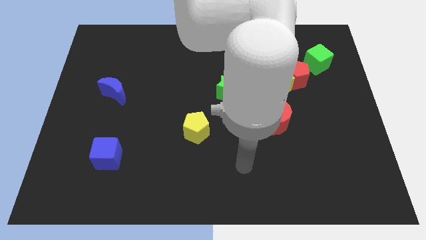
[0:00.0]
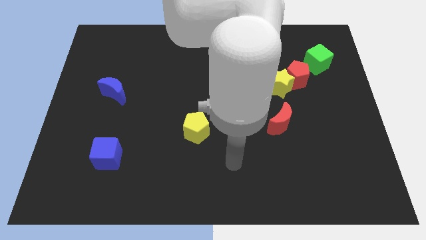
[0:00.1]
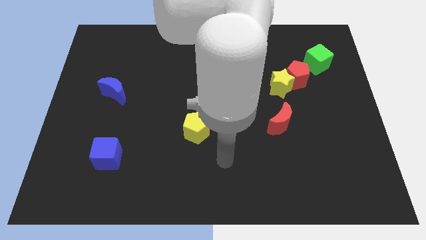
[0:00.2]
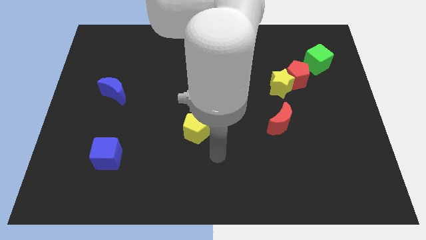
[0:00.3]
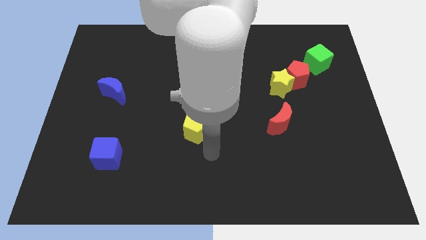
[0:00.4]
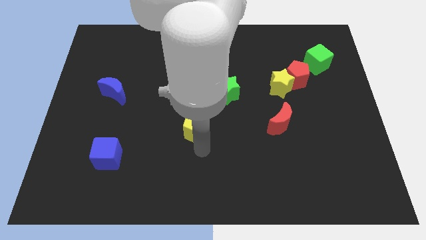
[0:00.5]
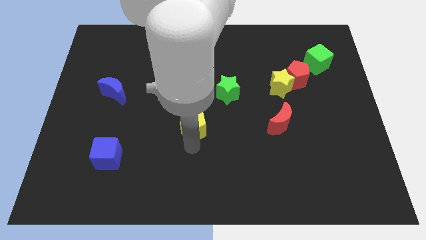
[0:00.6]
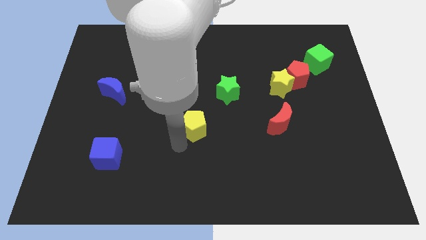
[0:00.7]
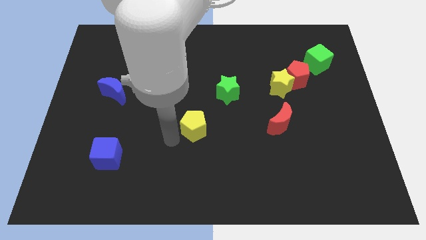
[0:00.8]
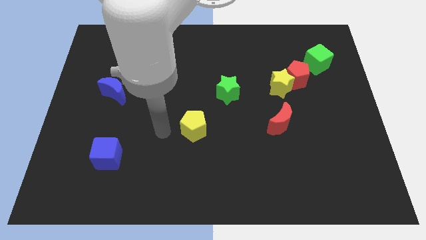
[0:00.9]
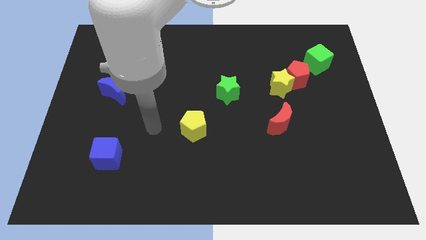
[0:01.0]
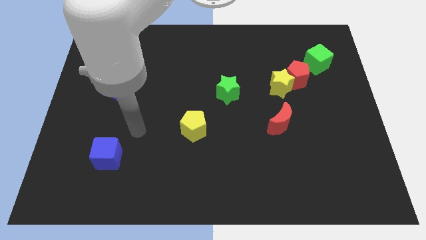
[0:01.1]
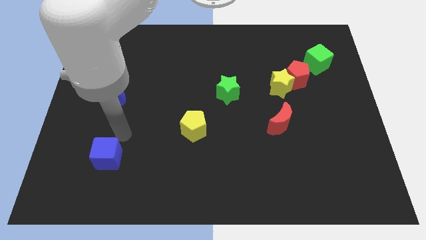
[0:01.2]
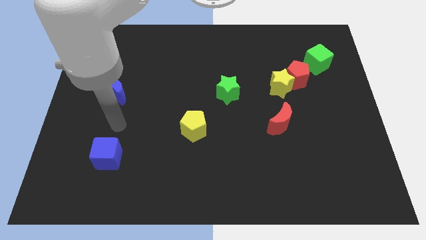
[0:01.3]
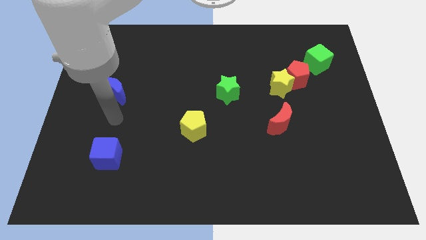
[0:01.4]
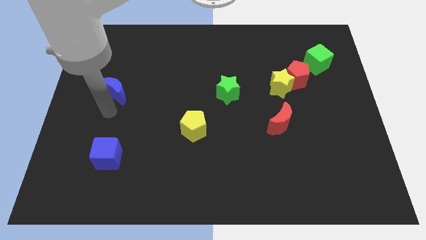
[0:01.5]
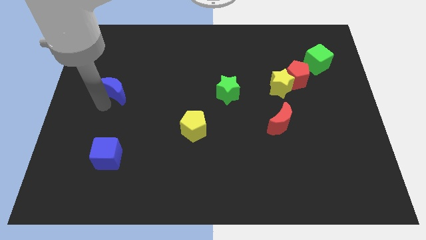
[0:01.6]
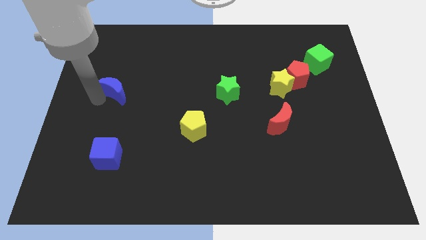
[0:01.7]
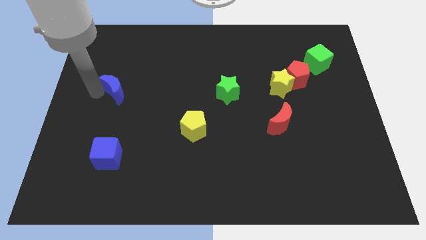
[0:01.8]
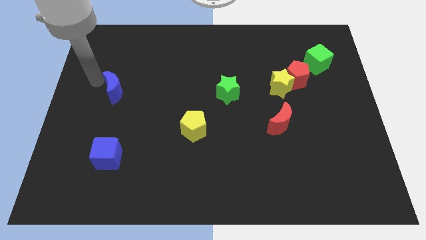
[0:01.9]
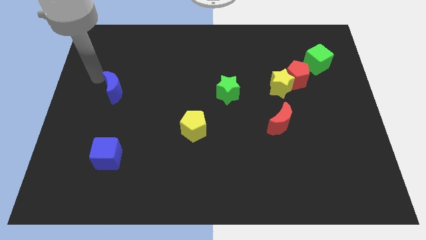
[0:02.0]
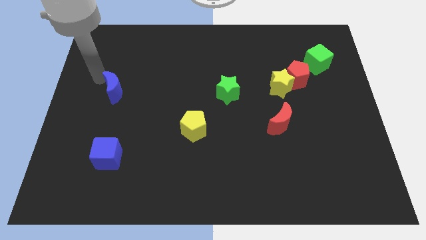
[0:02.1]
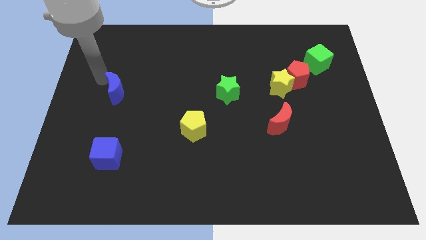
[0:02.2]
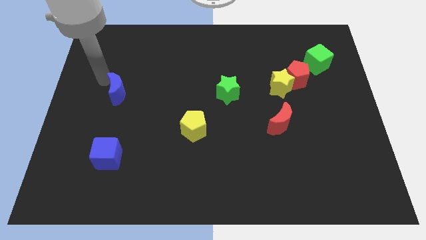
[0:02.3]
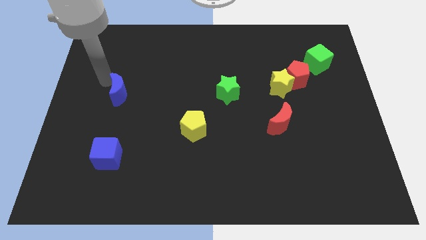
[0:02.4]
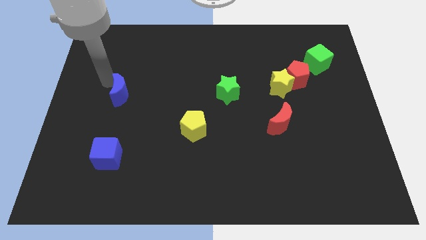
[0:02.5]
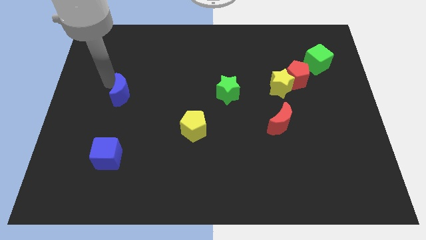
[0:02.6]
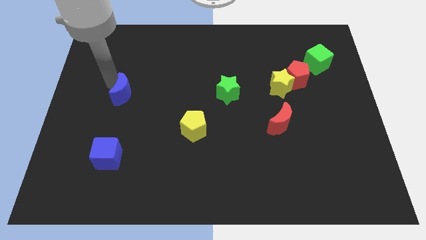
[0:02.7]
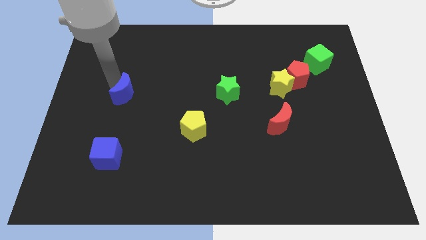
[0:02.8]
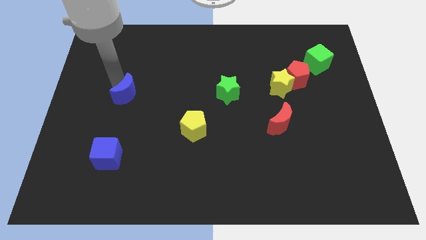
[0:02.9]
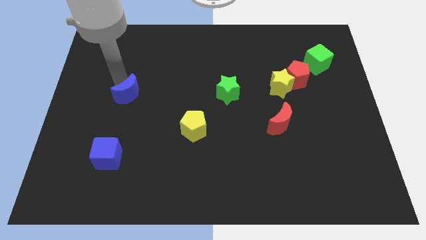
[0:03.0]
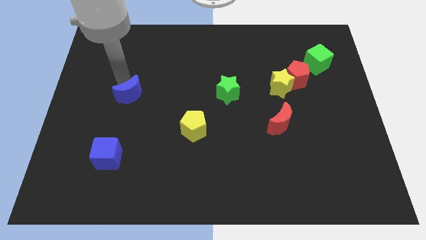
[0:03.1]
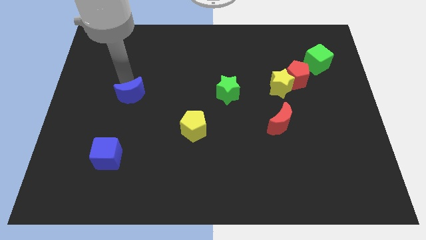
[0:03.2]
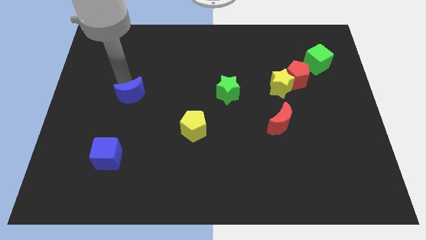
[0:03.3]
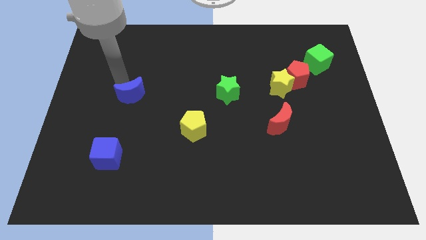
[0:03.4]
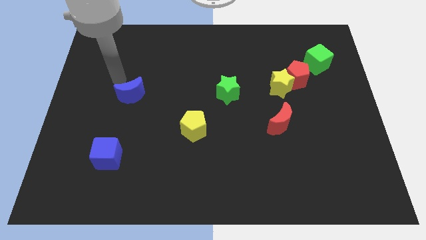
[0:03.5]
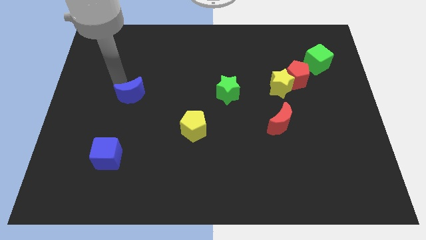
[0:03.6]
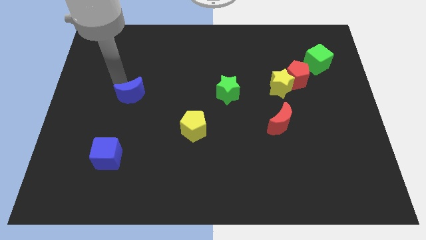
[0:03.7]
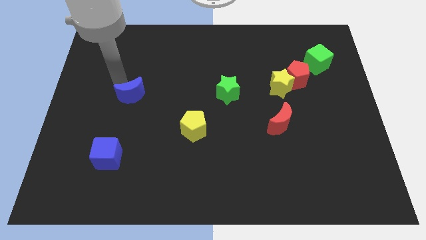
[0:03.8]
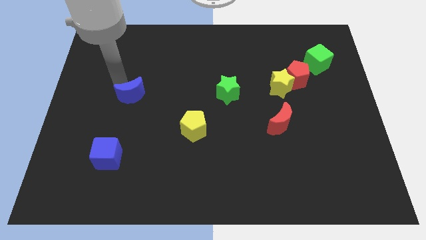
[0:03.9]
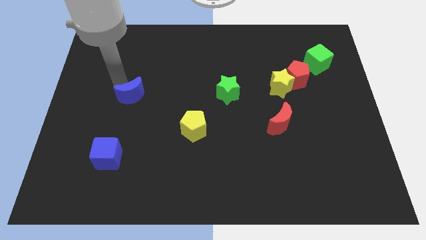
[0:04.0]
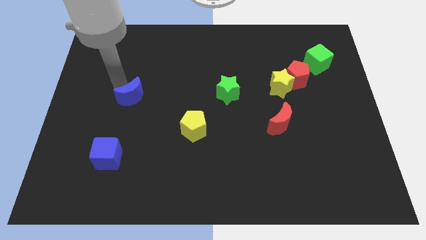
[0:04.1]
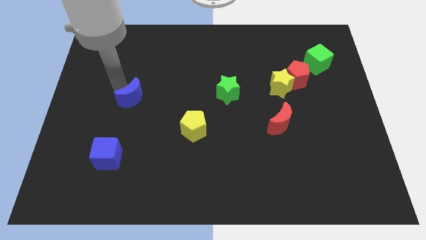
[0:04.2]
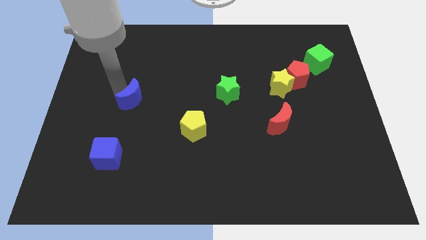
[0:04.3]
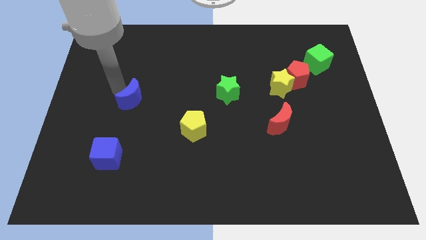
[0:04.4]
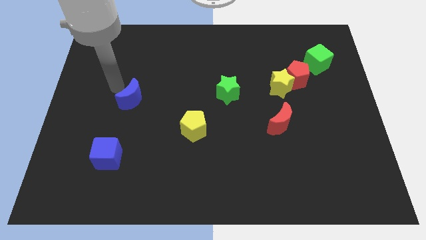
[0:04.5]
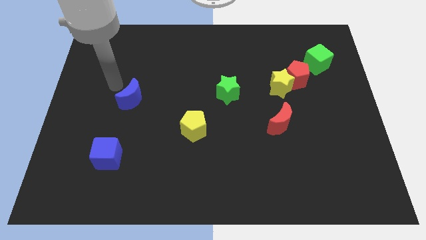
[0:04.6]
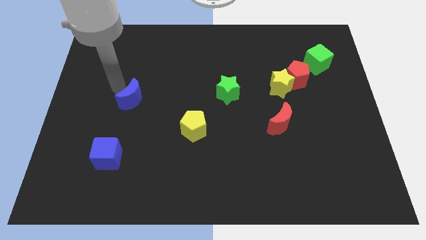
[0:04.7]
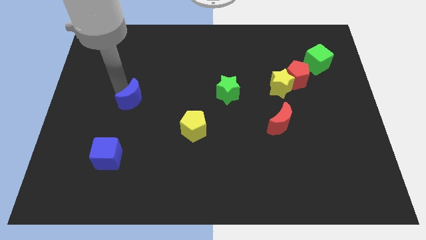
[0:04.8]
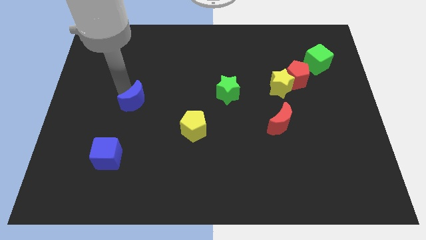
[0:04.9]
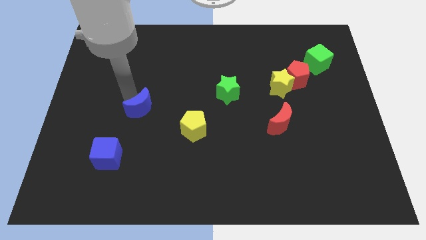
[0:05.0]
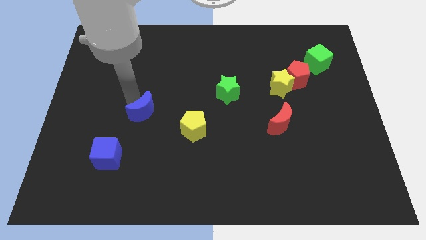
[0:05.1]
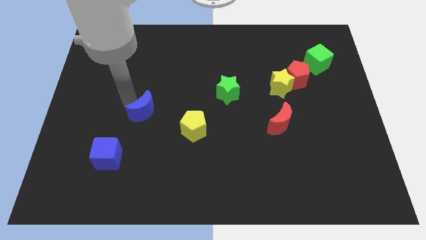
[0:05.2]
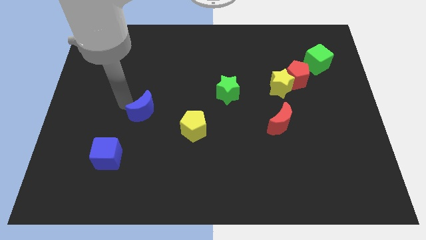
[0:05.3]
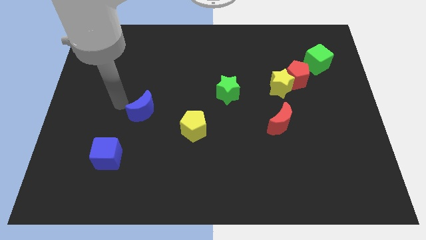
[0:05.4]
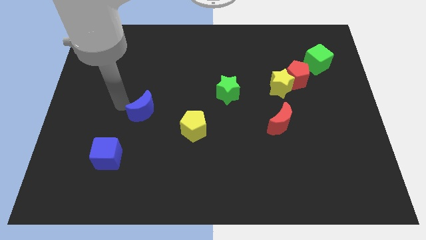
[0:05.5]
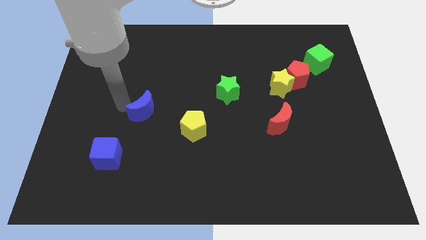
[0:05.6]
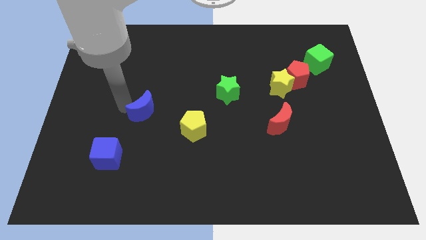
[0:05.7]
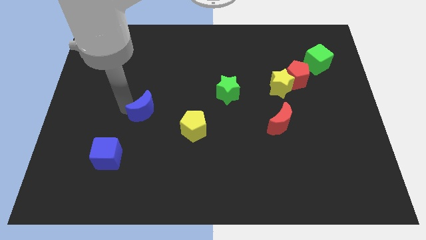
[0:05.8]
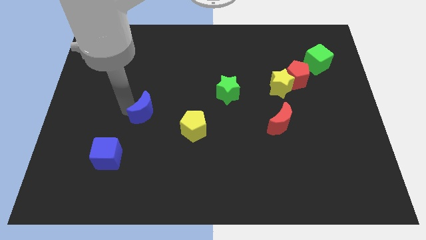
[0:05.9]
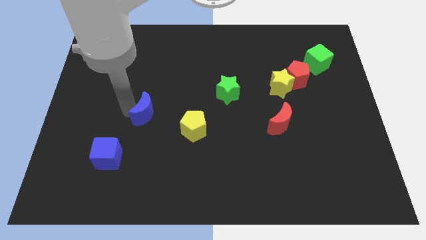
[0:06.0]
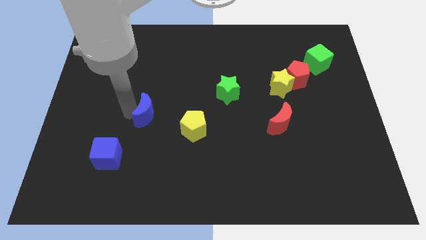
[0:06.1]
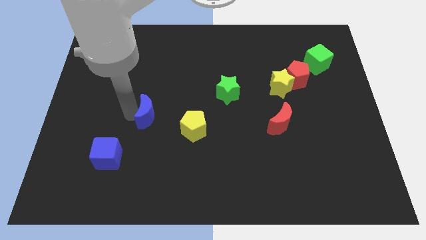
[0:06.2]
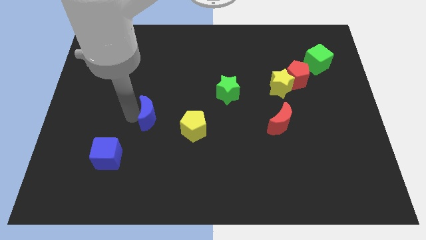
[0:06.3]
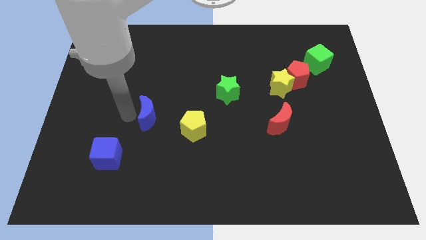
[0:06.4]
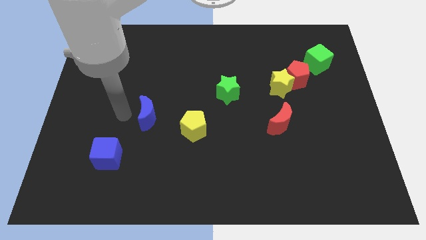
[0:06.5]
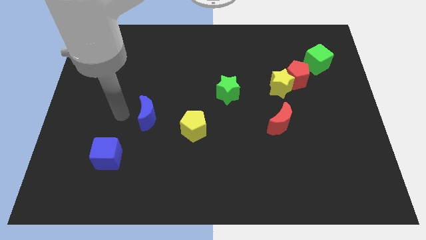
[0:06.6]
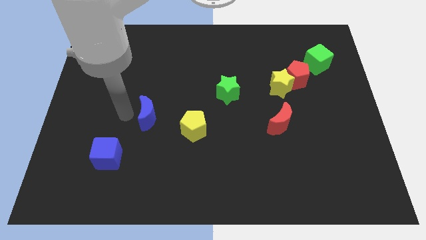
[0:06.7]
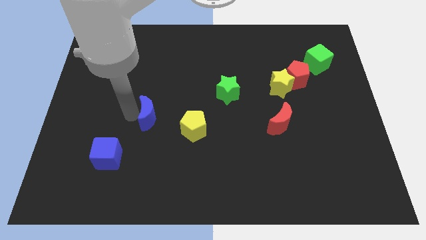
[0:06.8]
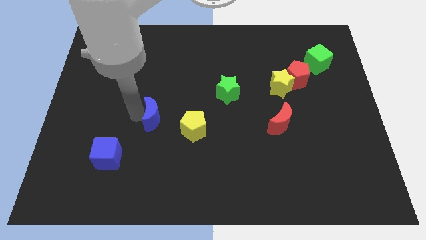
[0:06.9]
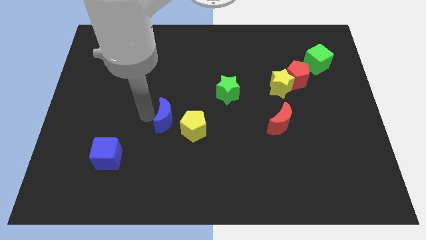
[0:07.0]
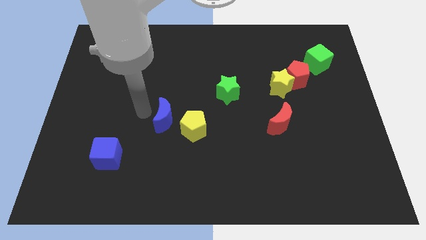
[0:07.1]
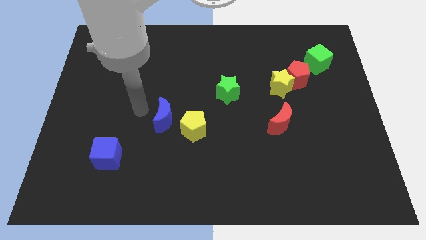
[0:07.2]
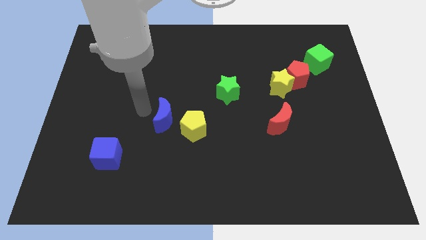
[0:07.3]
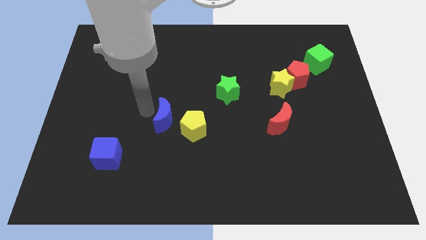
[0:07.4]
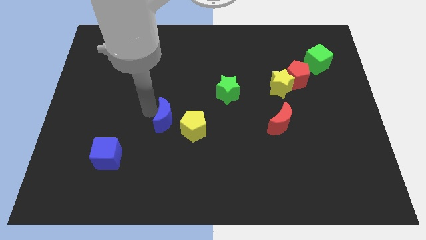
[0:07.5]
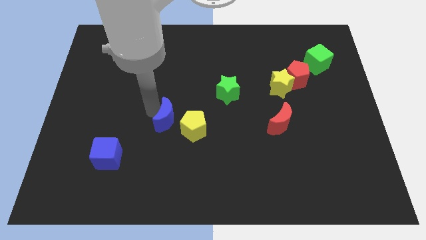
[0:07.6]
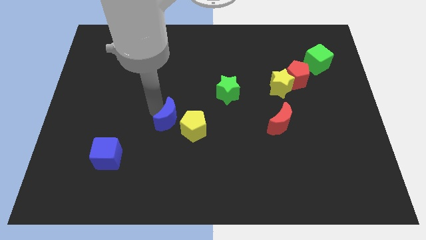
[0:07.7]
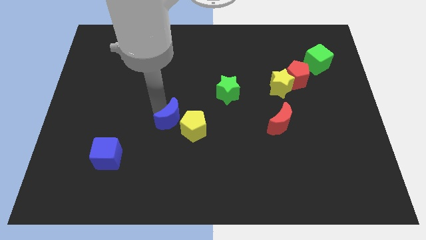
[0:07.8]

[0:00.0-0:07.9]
put the blue moon close to the yellow pentagon

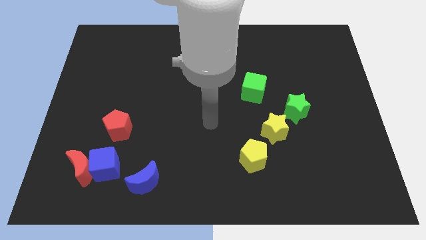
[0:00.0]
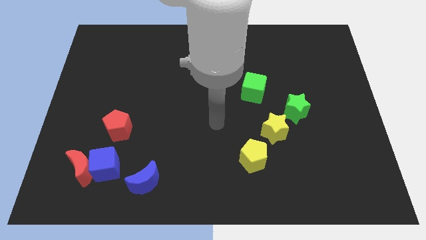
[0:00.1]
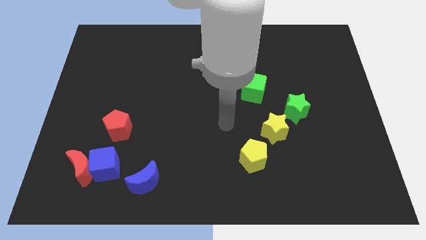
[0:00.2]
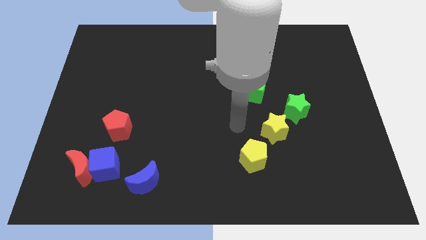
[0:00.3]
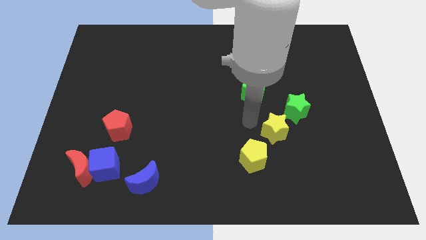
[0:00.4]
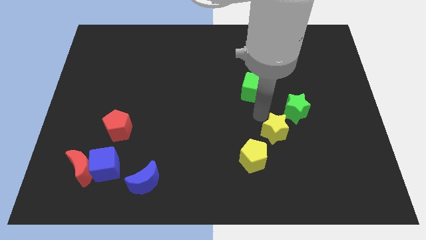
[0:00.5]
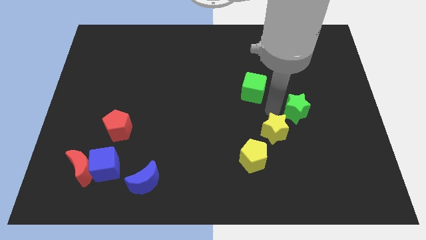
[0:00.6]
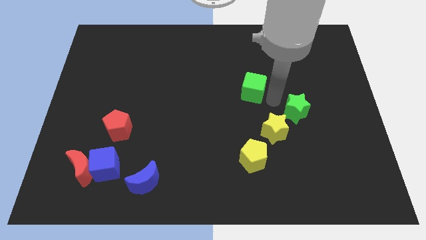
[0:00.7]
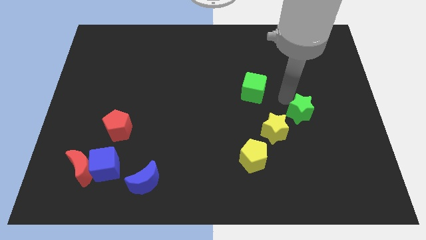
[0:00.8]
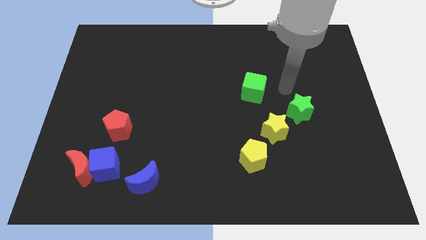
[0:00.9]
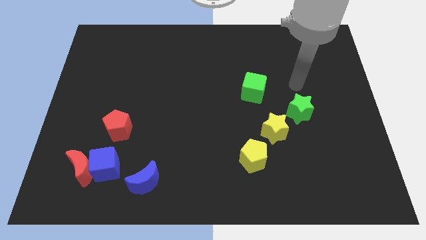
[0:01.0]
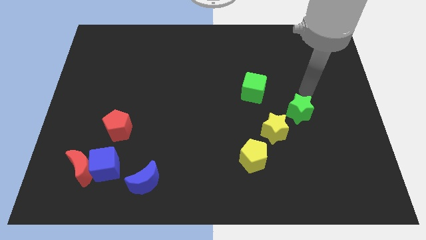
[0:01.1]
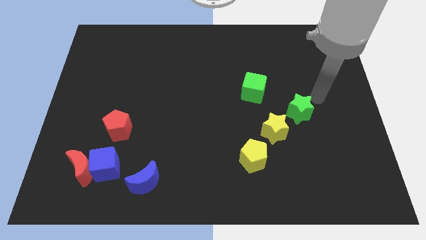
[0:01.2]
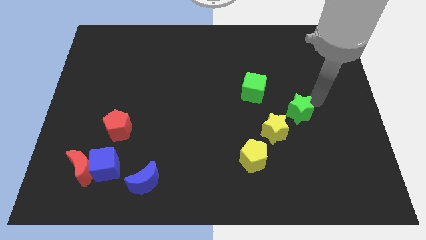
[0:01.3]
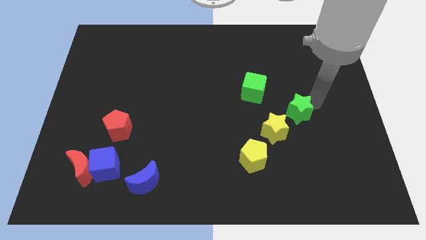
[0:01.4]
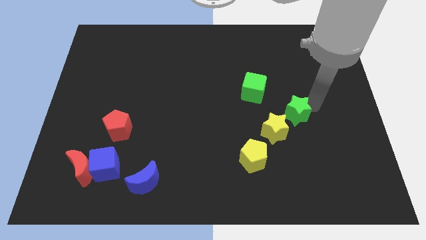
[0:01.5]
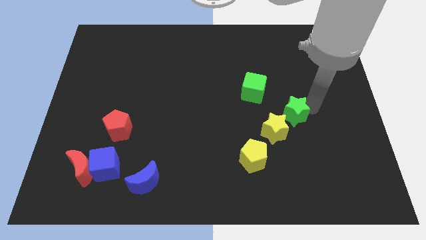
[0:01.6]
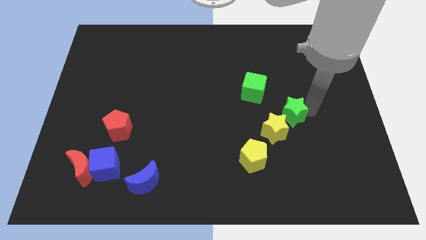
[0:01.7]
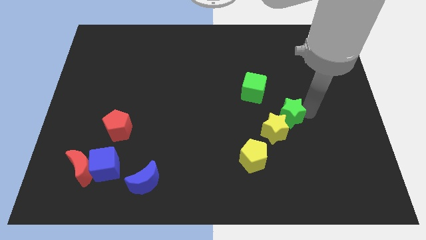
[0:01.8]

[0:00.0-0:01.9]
put the green star close to the yellow star
